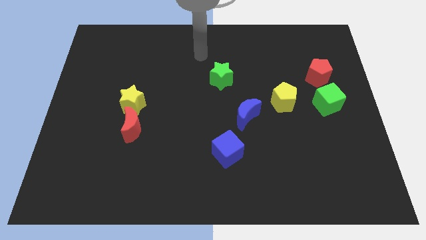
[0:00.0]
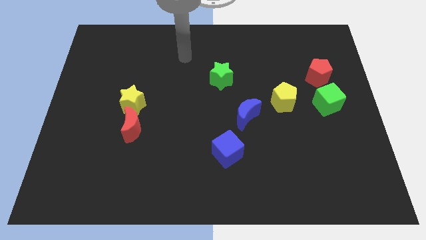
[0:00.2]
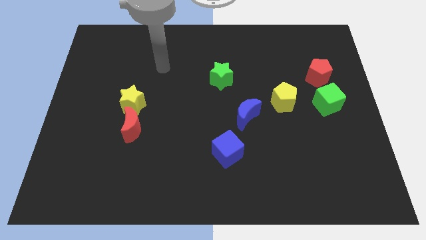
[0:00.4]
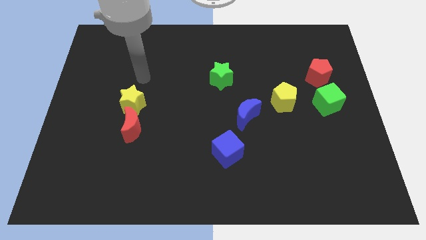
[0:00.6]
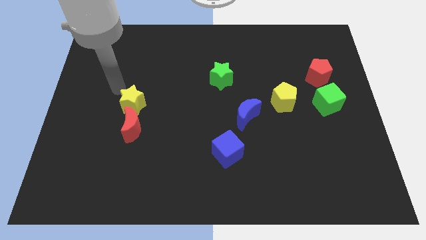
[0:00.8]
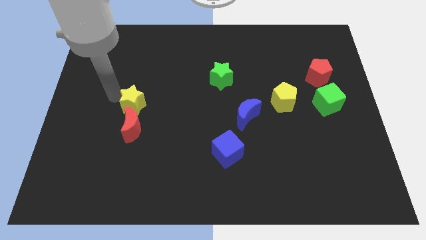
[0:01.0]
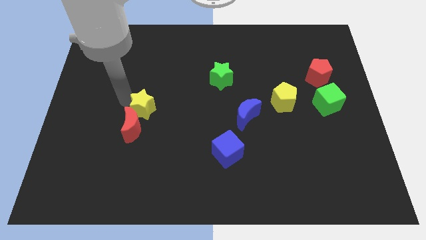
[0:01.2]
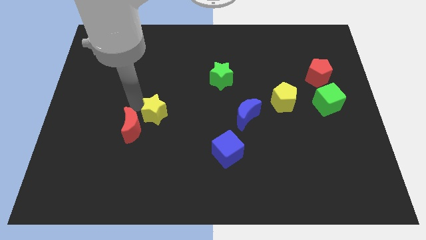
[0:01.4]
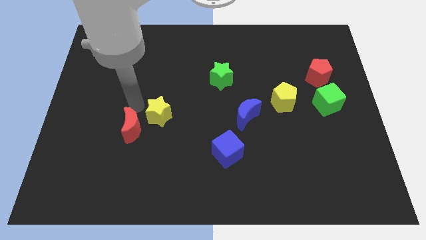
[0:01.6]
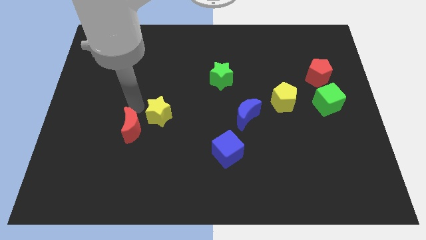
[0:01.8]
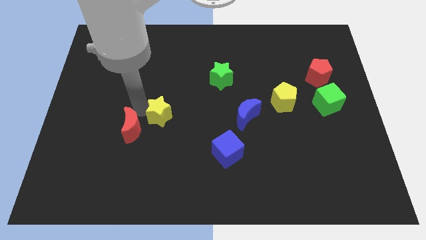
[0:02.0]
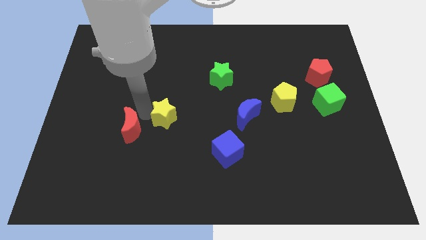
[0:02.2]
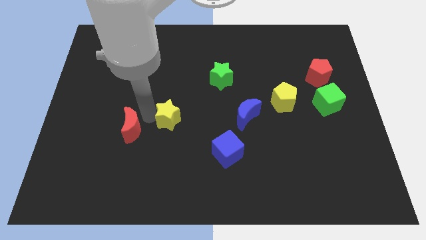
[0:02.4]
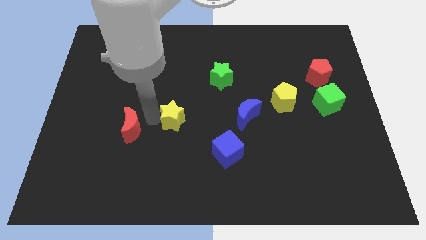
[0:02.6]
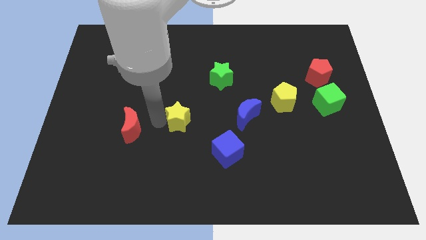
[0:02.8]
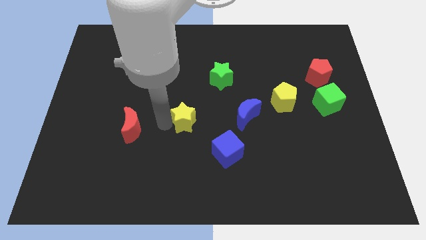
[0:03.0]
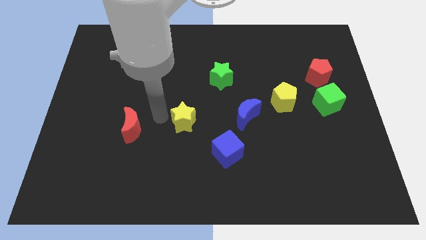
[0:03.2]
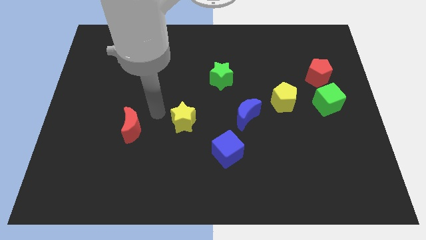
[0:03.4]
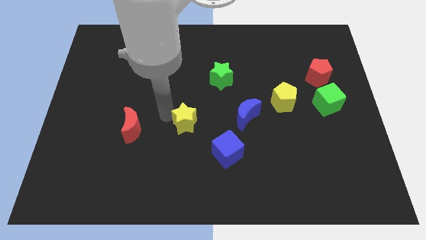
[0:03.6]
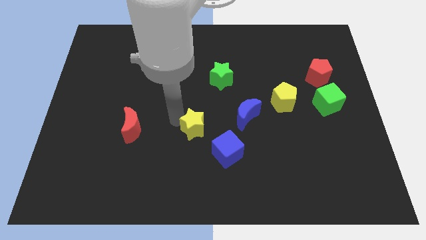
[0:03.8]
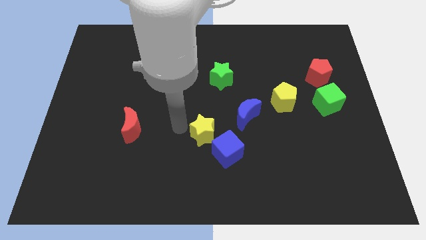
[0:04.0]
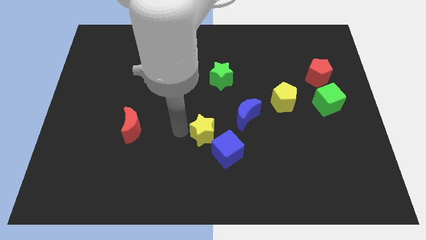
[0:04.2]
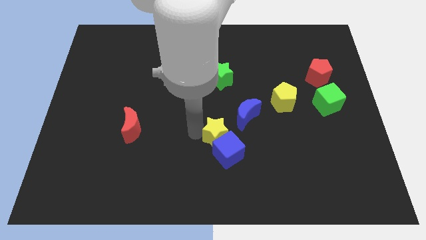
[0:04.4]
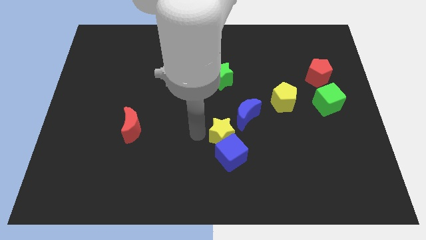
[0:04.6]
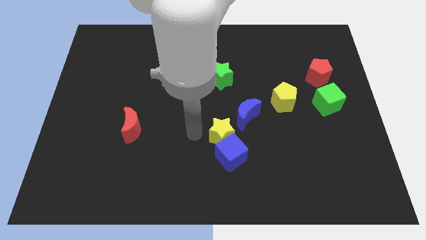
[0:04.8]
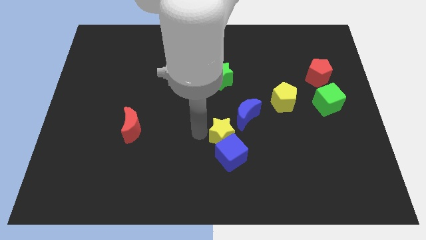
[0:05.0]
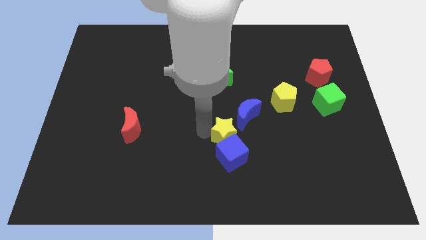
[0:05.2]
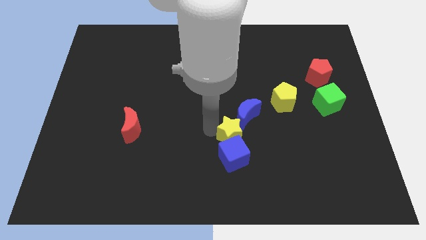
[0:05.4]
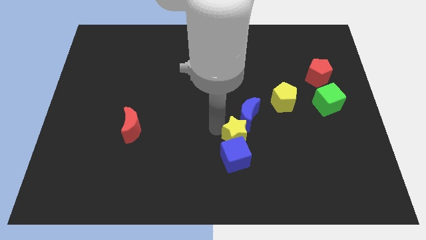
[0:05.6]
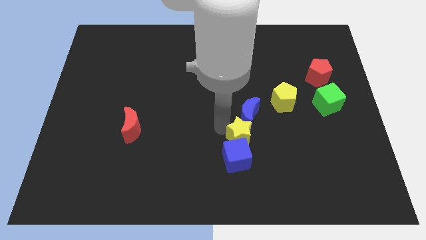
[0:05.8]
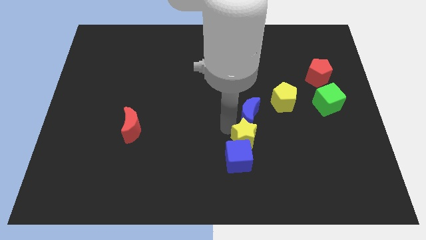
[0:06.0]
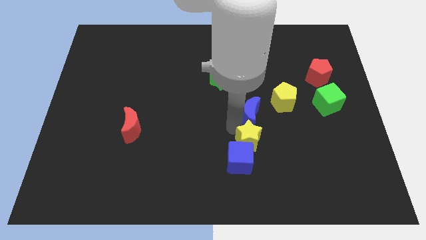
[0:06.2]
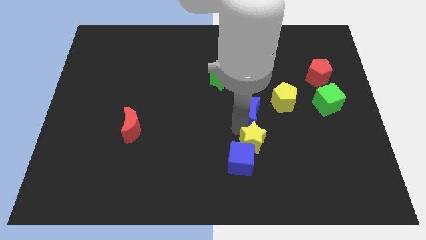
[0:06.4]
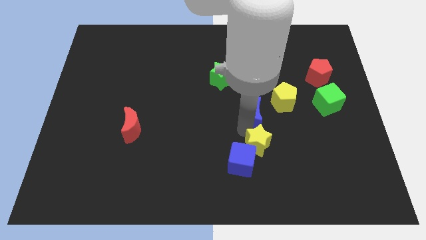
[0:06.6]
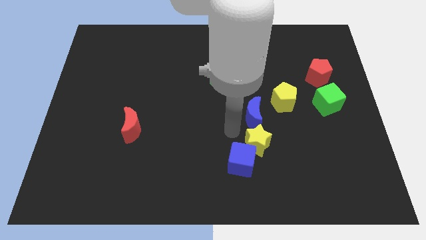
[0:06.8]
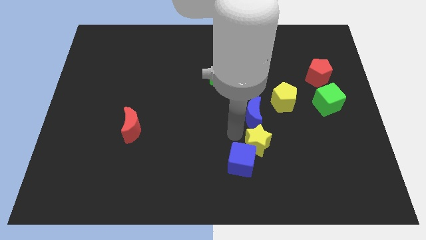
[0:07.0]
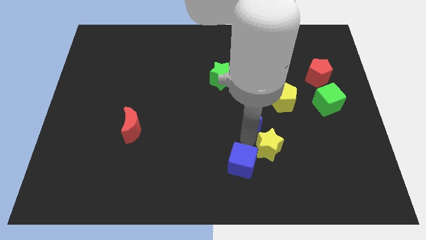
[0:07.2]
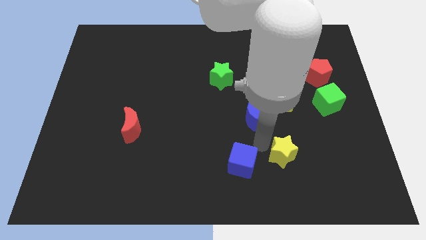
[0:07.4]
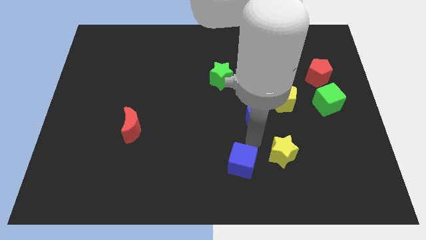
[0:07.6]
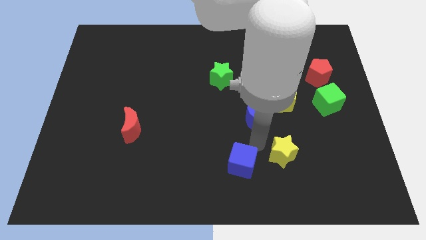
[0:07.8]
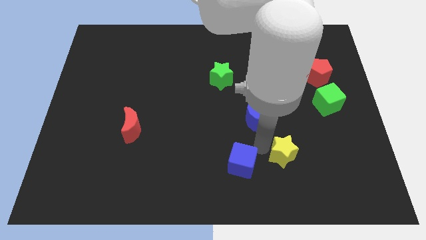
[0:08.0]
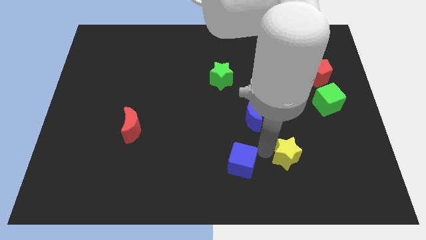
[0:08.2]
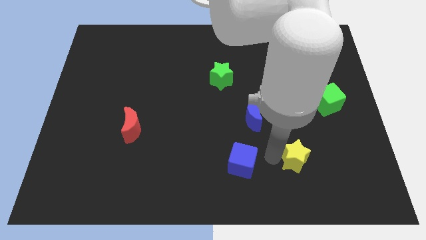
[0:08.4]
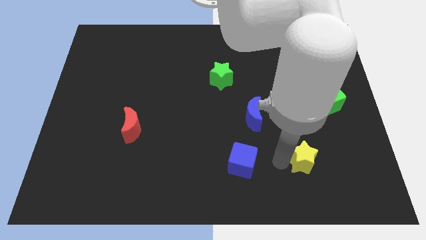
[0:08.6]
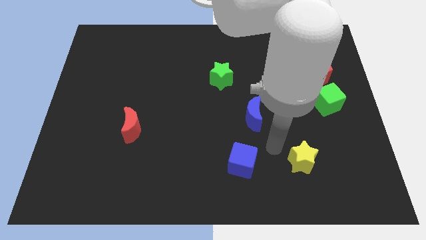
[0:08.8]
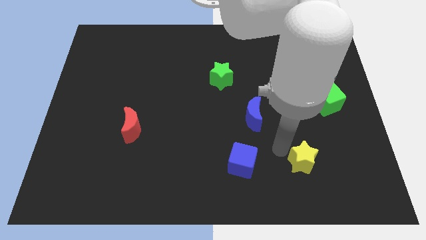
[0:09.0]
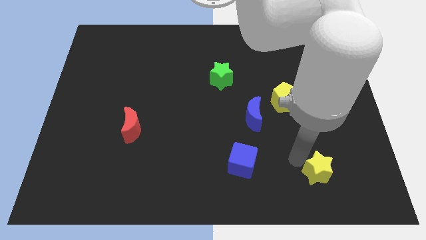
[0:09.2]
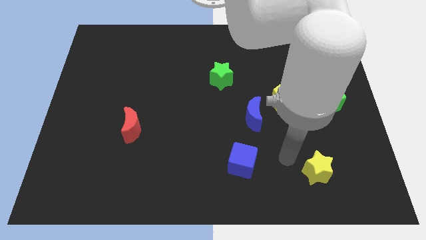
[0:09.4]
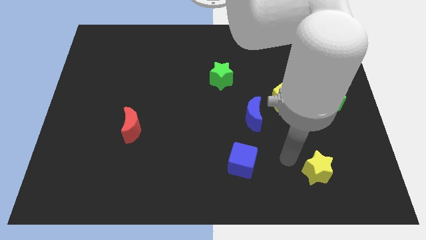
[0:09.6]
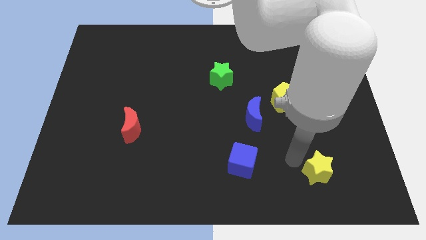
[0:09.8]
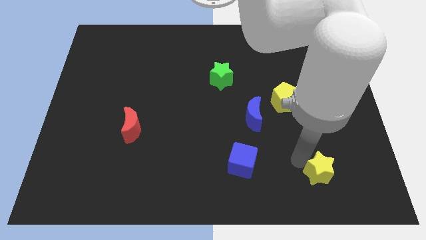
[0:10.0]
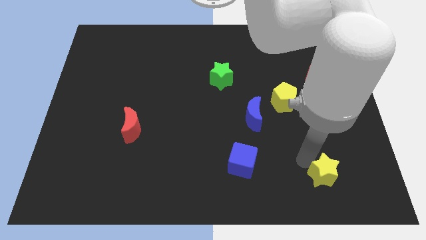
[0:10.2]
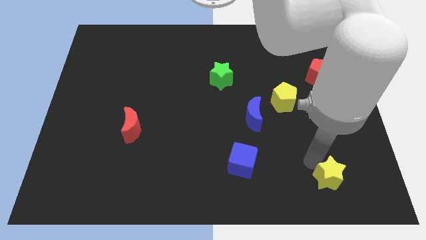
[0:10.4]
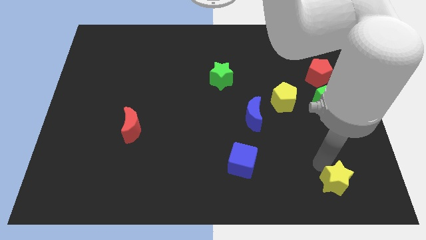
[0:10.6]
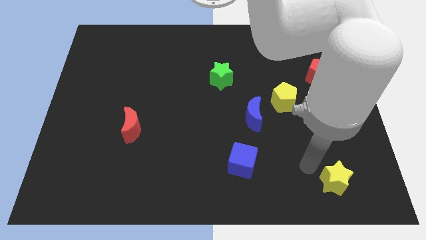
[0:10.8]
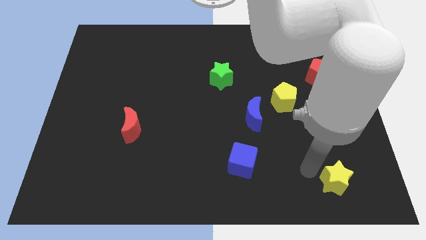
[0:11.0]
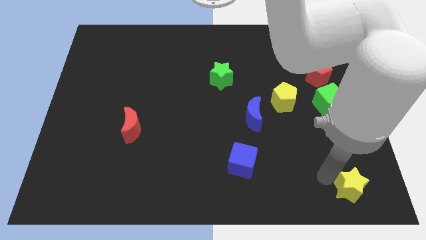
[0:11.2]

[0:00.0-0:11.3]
push the yellow star to the bottom right corner

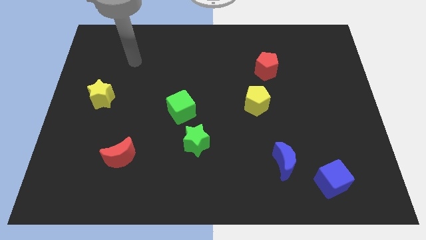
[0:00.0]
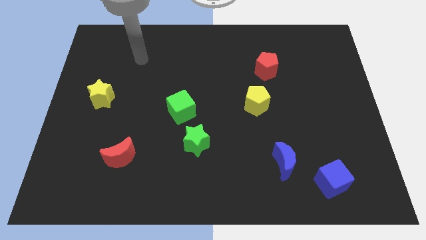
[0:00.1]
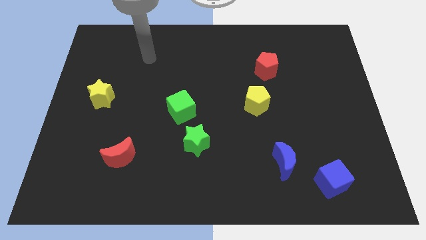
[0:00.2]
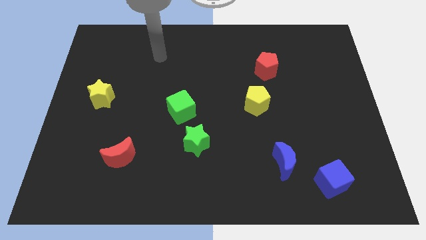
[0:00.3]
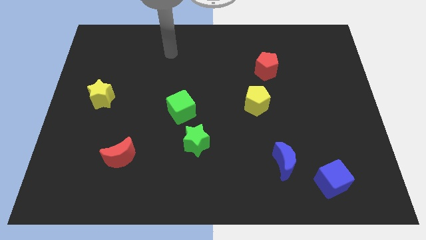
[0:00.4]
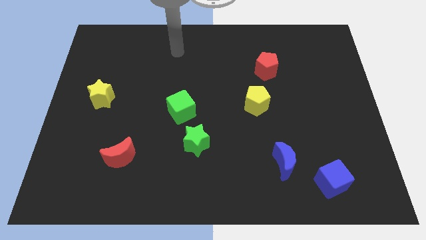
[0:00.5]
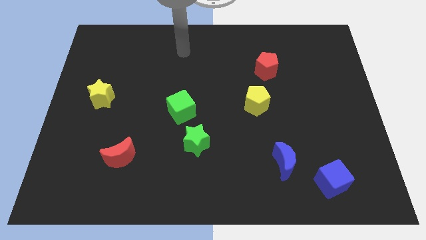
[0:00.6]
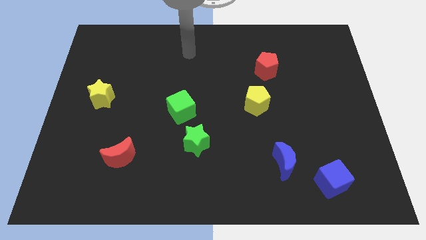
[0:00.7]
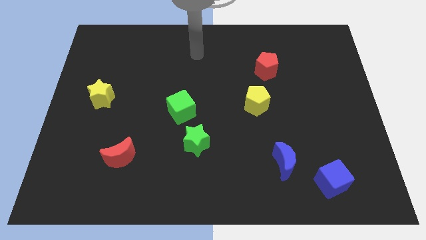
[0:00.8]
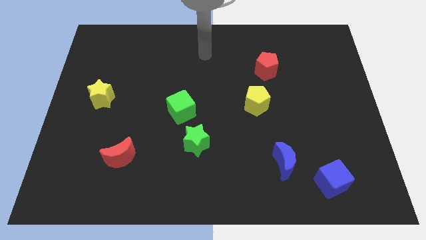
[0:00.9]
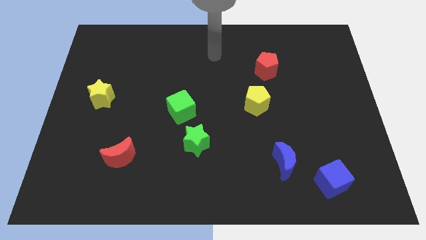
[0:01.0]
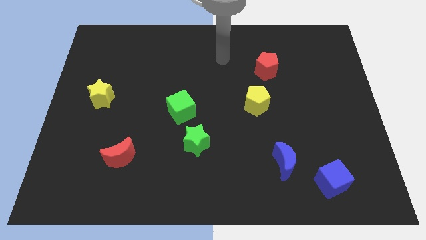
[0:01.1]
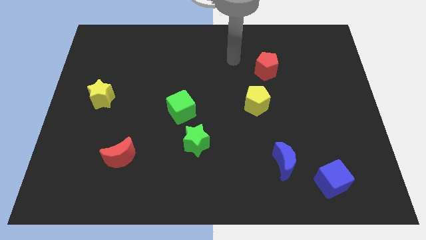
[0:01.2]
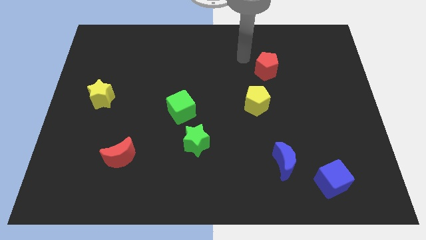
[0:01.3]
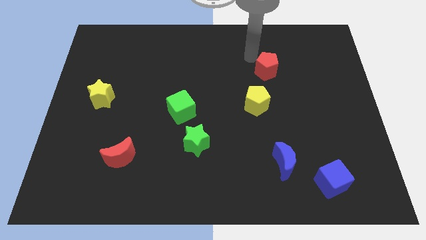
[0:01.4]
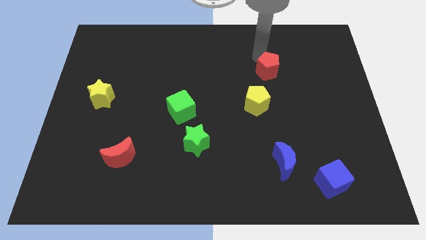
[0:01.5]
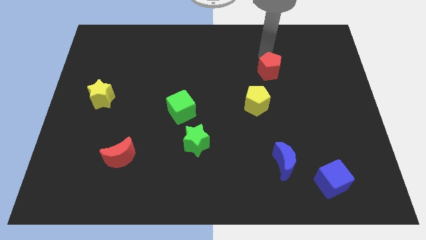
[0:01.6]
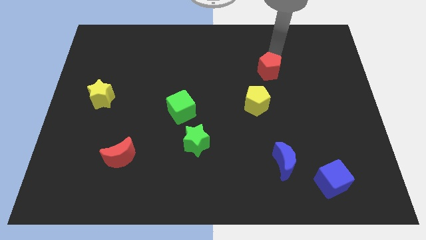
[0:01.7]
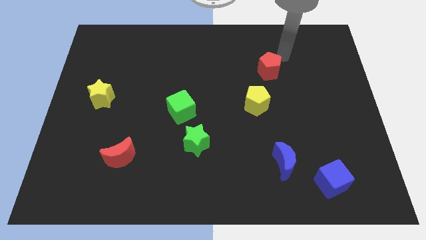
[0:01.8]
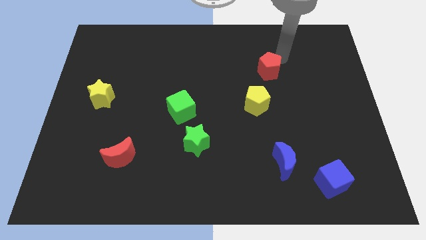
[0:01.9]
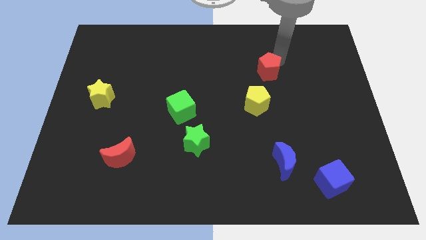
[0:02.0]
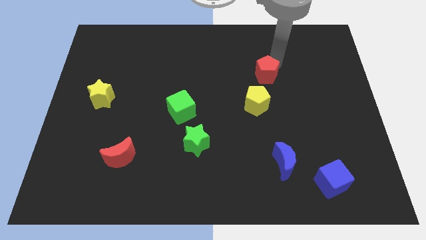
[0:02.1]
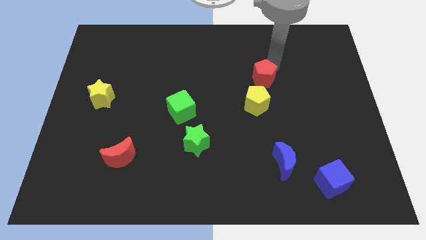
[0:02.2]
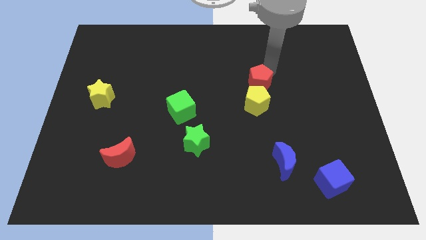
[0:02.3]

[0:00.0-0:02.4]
put the red pentagon to the center
